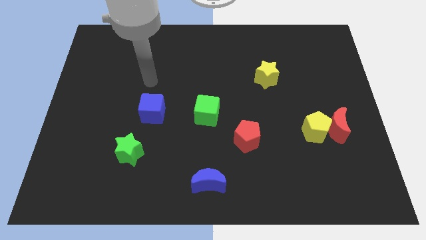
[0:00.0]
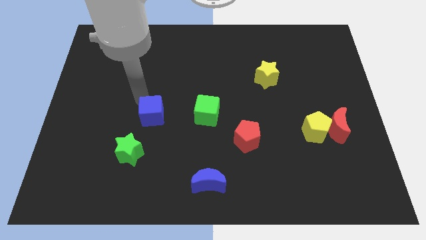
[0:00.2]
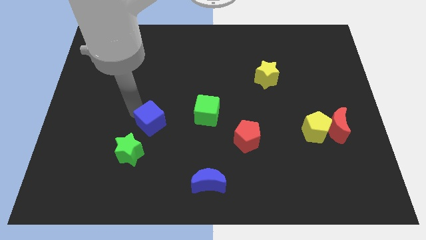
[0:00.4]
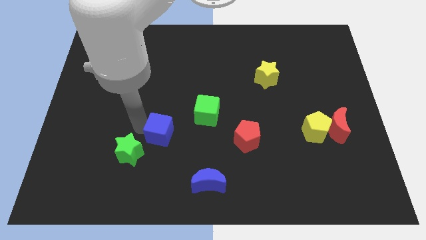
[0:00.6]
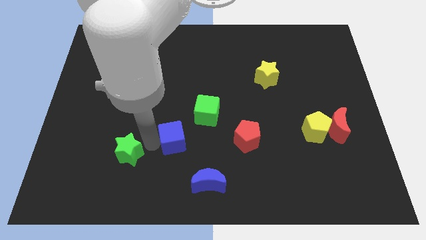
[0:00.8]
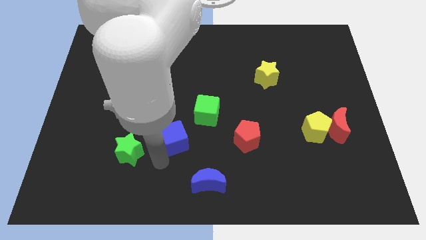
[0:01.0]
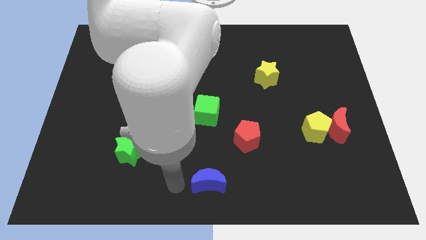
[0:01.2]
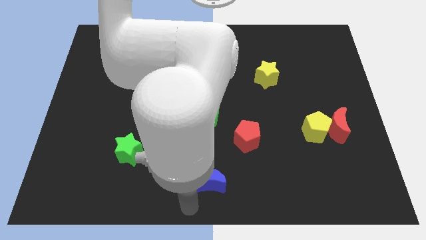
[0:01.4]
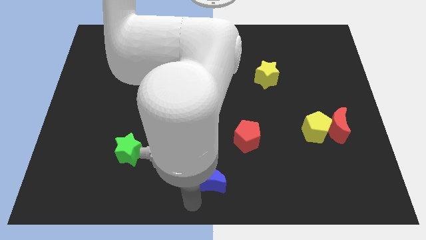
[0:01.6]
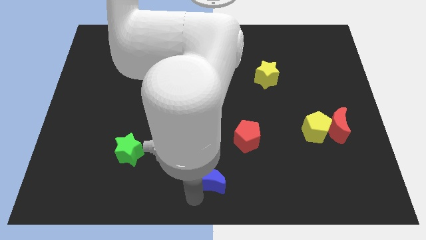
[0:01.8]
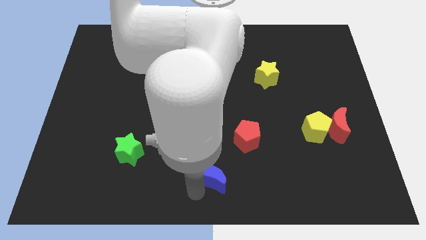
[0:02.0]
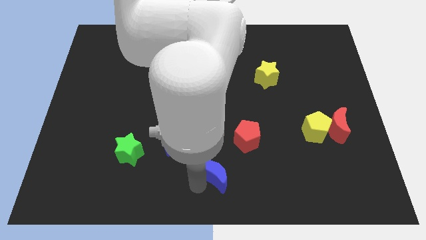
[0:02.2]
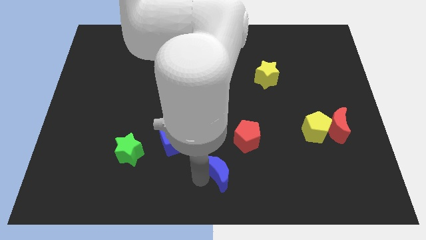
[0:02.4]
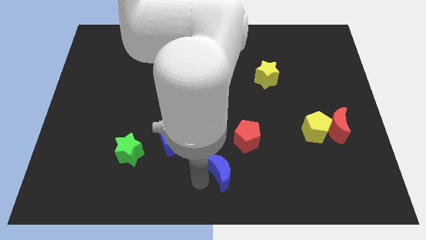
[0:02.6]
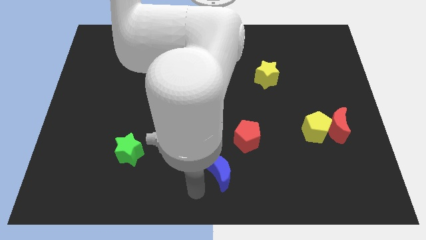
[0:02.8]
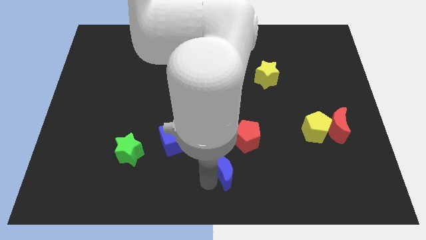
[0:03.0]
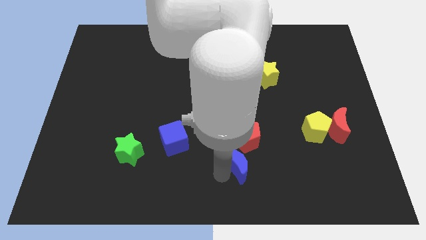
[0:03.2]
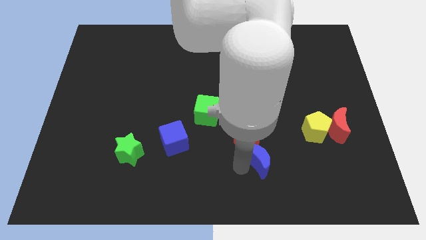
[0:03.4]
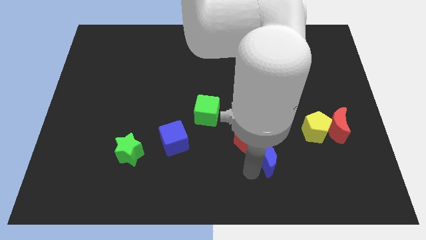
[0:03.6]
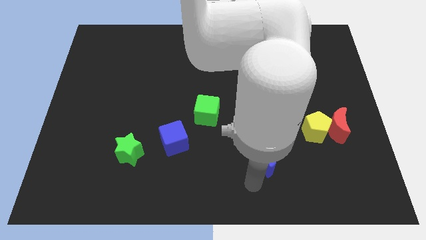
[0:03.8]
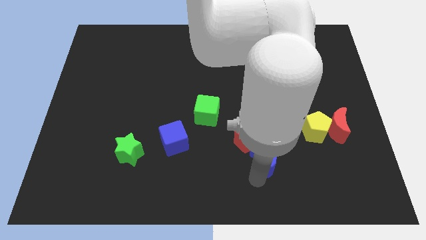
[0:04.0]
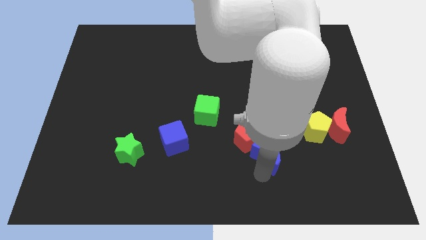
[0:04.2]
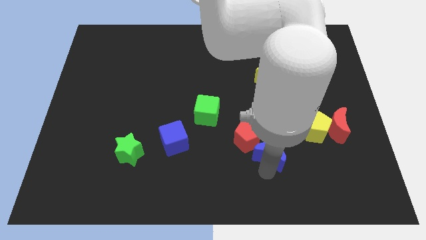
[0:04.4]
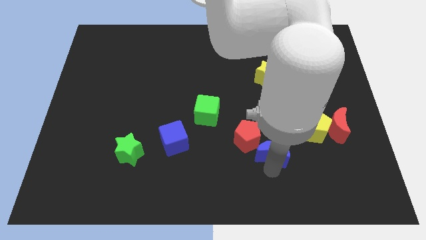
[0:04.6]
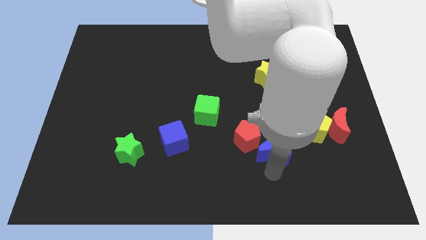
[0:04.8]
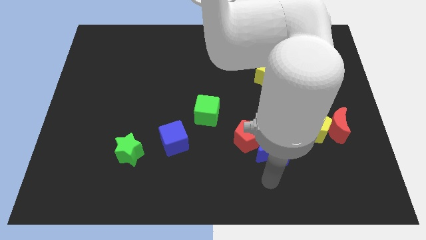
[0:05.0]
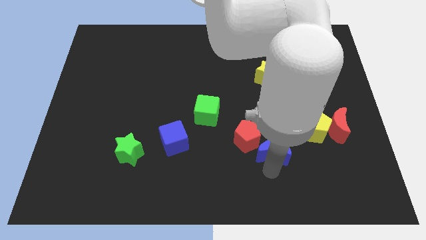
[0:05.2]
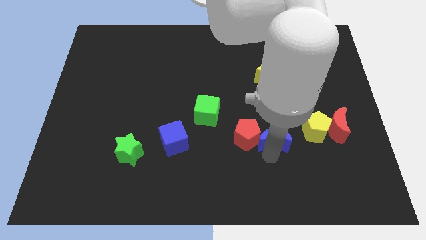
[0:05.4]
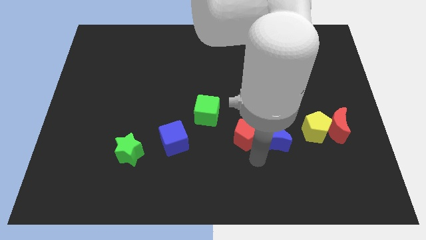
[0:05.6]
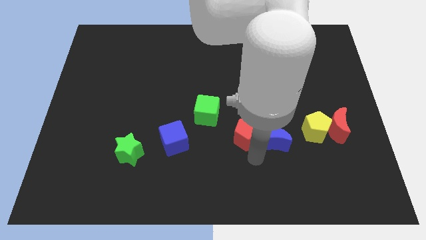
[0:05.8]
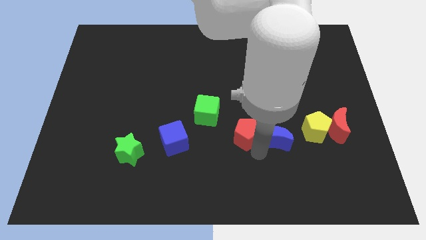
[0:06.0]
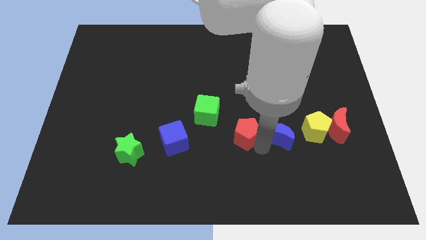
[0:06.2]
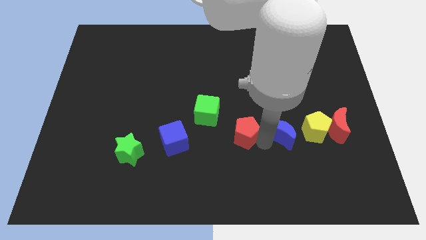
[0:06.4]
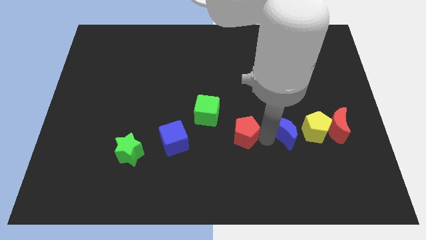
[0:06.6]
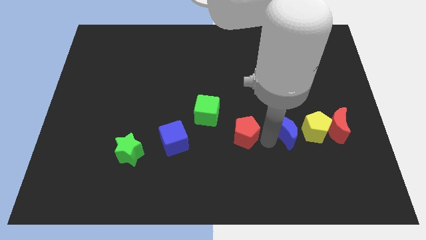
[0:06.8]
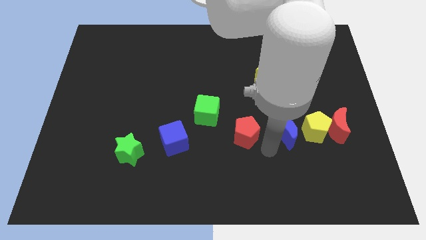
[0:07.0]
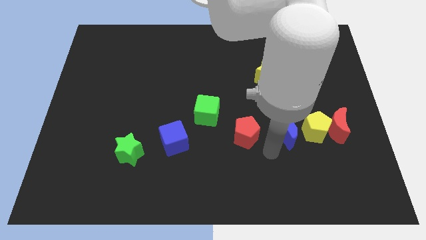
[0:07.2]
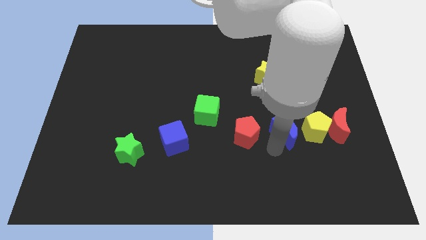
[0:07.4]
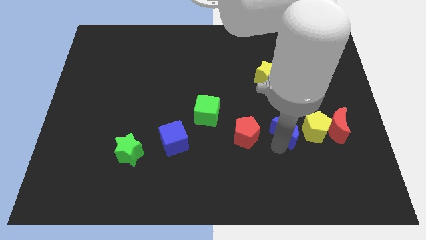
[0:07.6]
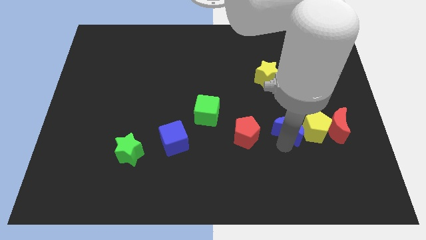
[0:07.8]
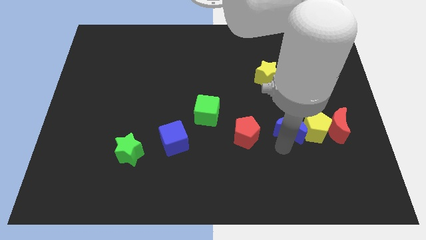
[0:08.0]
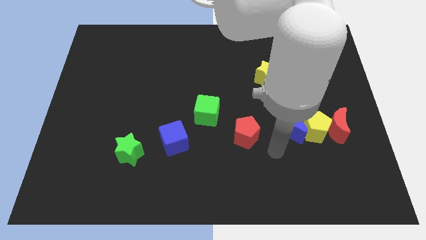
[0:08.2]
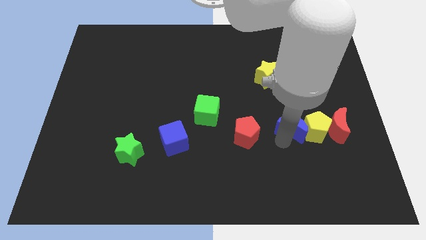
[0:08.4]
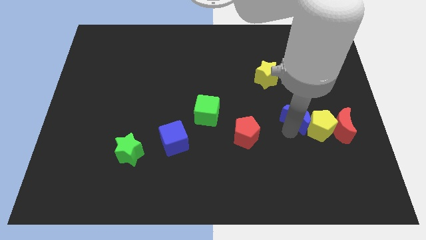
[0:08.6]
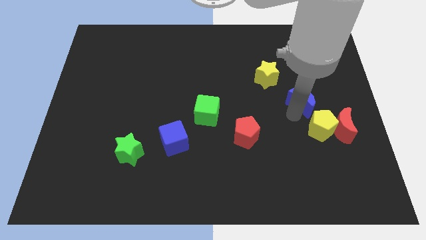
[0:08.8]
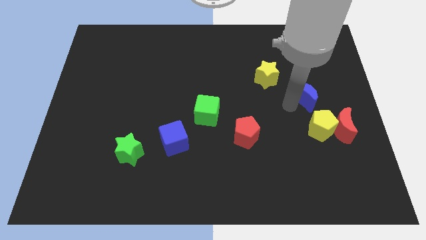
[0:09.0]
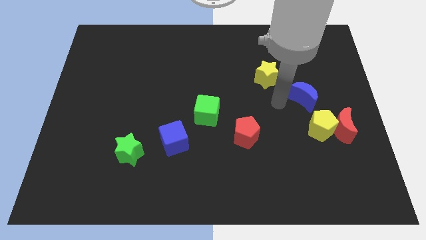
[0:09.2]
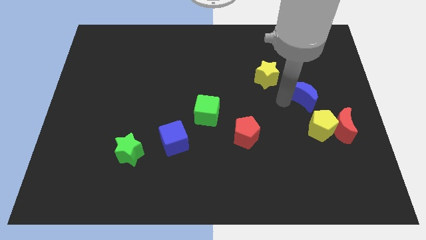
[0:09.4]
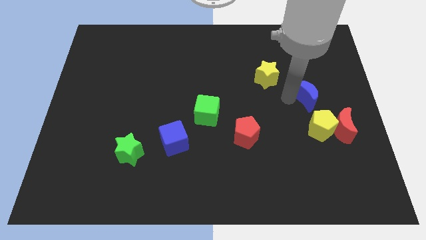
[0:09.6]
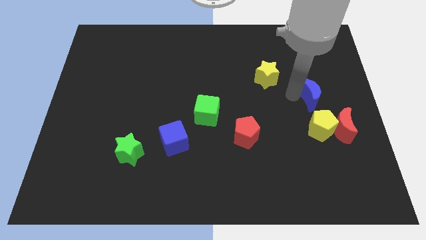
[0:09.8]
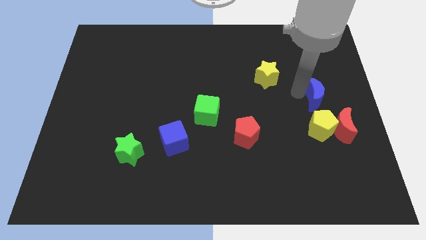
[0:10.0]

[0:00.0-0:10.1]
slide the blue moon above the red moon

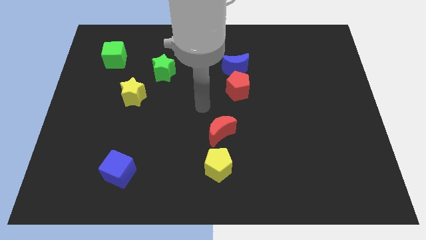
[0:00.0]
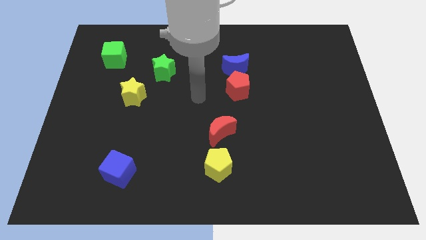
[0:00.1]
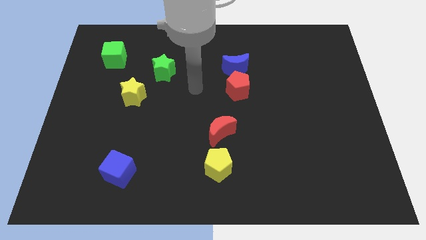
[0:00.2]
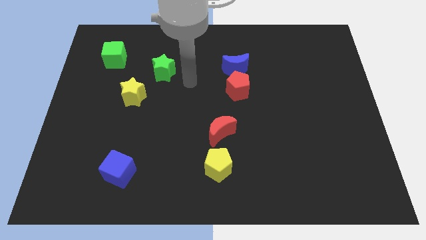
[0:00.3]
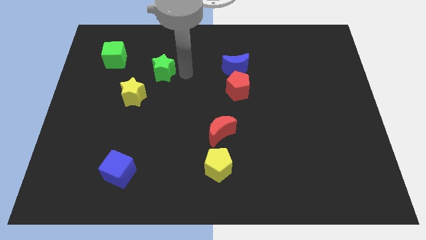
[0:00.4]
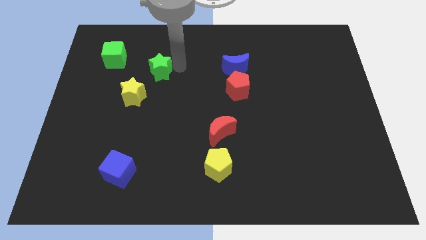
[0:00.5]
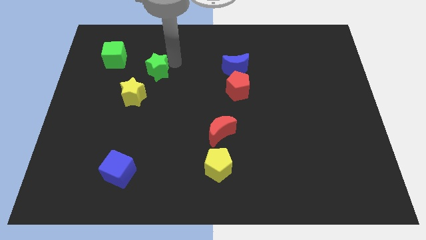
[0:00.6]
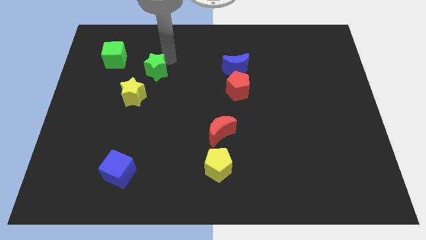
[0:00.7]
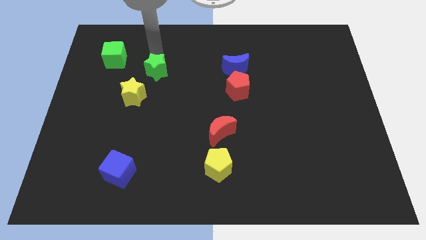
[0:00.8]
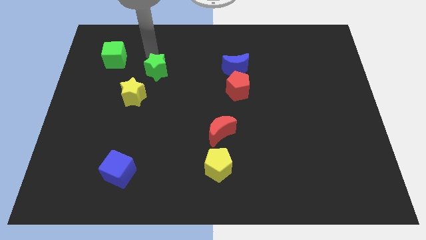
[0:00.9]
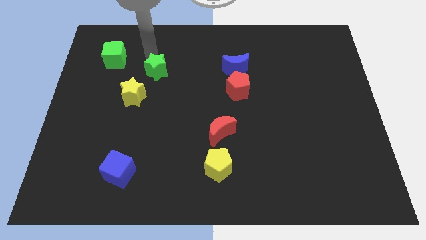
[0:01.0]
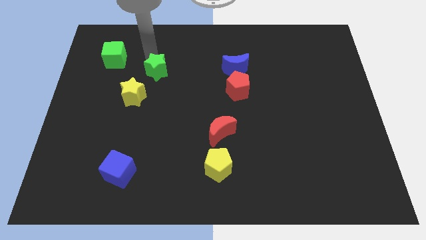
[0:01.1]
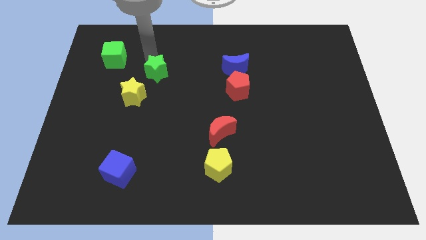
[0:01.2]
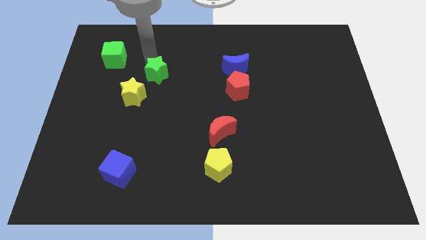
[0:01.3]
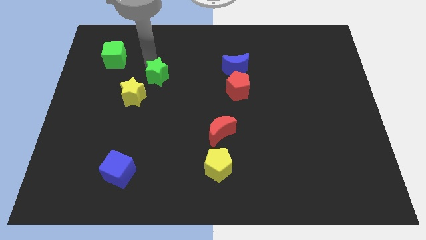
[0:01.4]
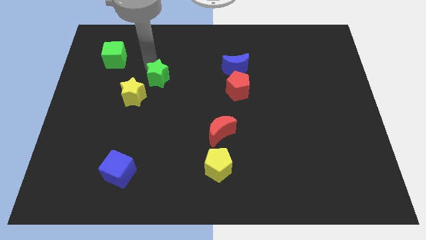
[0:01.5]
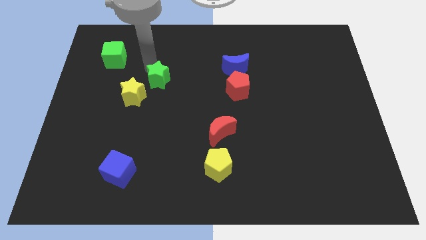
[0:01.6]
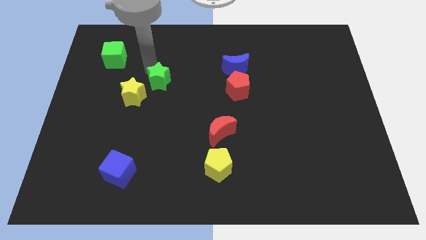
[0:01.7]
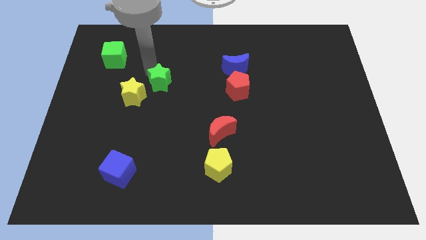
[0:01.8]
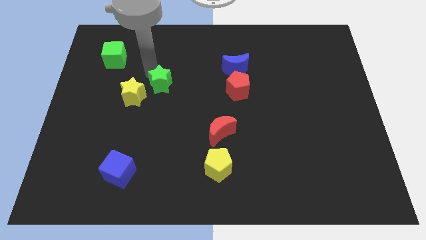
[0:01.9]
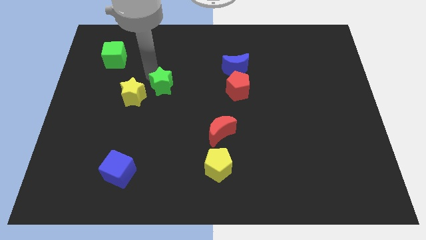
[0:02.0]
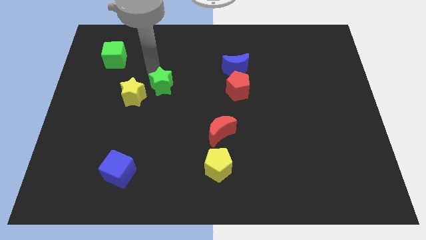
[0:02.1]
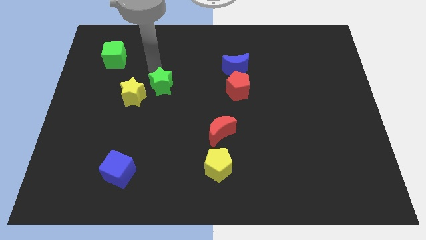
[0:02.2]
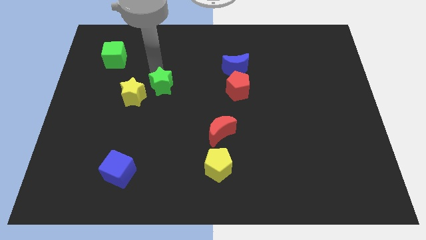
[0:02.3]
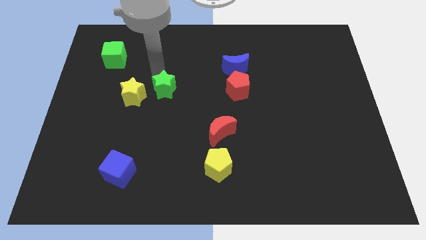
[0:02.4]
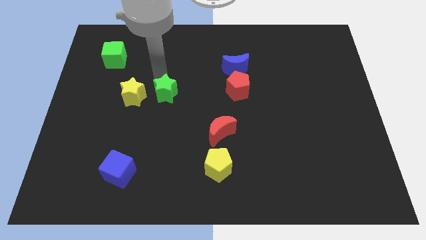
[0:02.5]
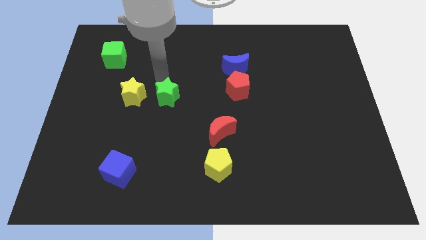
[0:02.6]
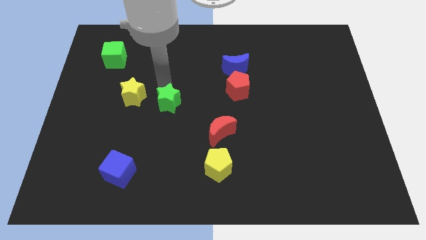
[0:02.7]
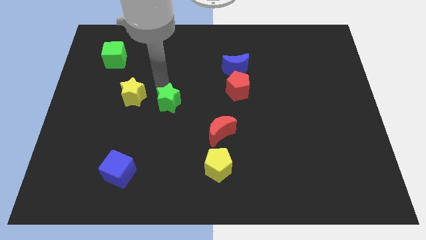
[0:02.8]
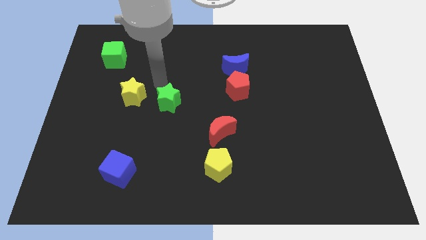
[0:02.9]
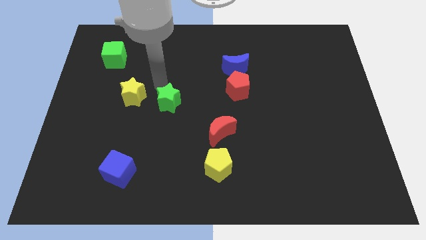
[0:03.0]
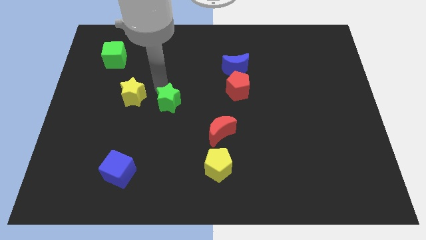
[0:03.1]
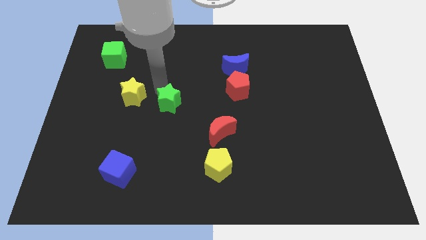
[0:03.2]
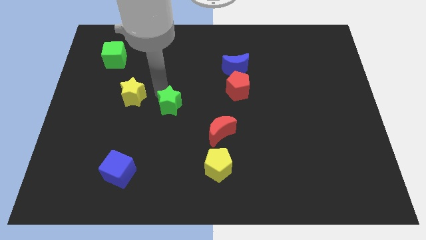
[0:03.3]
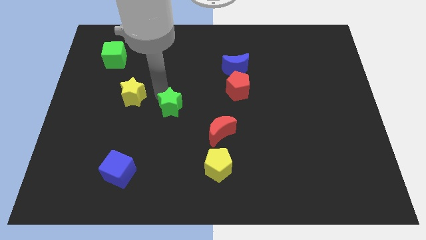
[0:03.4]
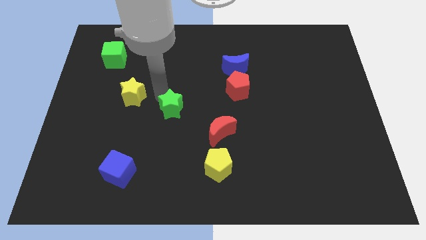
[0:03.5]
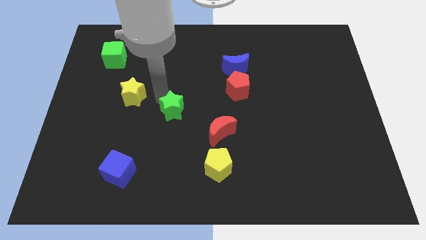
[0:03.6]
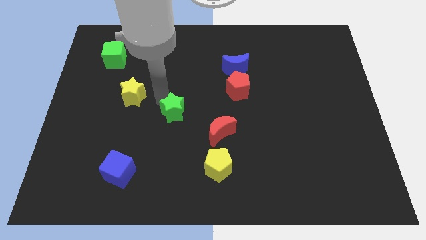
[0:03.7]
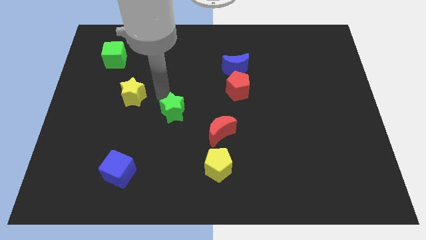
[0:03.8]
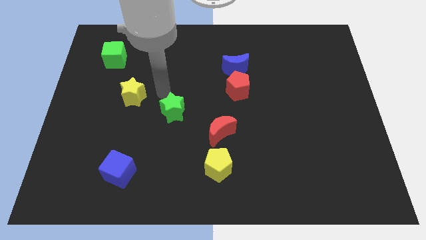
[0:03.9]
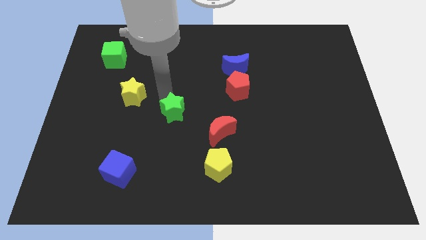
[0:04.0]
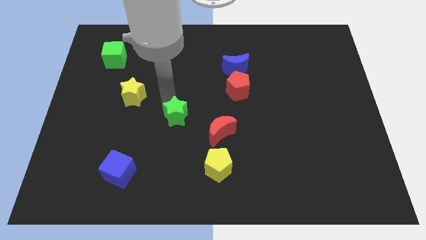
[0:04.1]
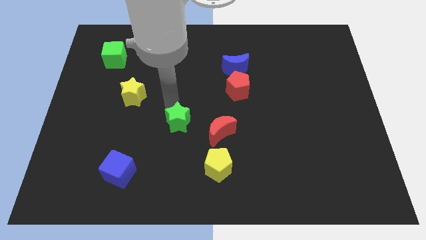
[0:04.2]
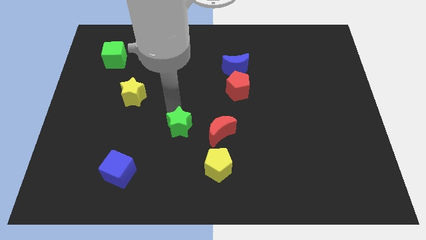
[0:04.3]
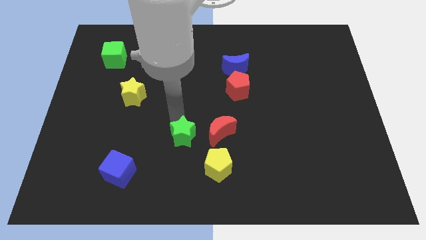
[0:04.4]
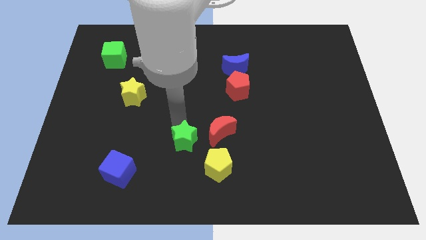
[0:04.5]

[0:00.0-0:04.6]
move the green star diagonally down and to the left of the red moon
